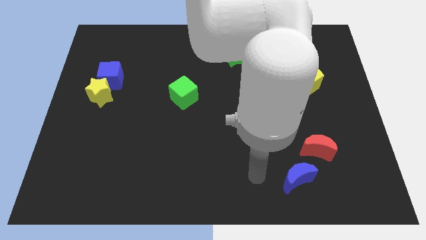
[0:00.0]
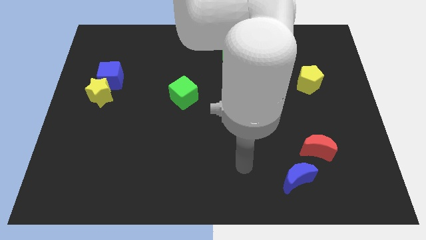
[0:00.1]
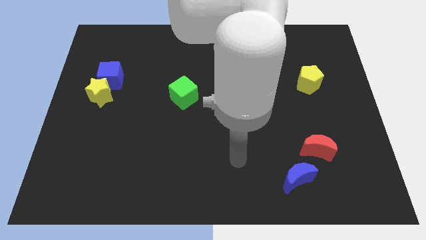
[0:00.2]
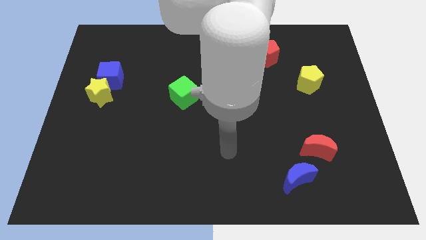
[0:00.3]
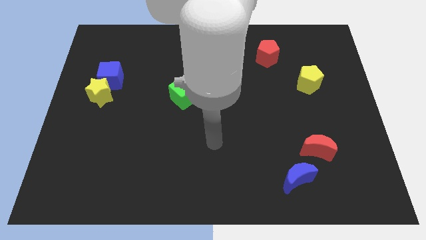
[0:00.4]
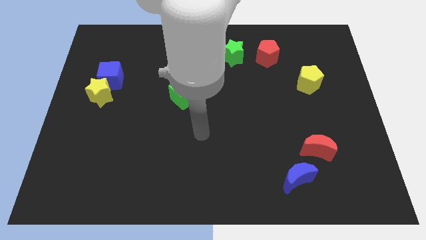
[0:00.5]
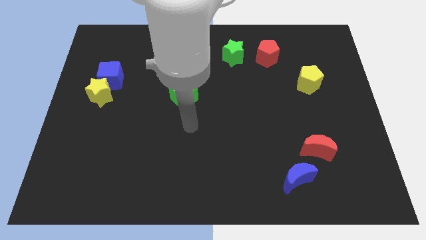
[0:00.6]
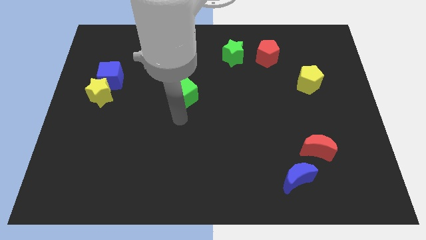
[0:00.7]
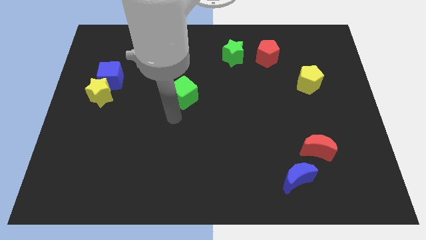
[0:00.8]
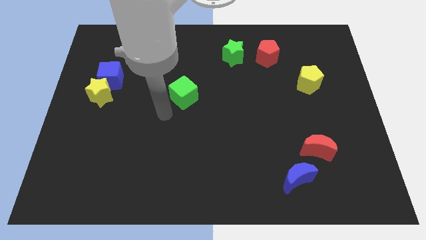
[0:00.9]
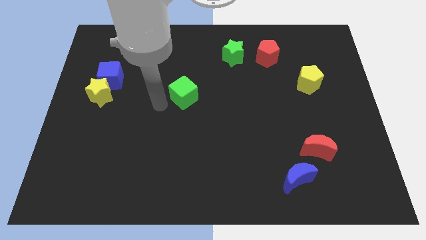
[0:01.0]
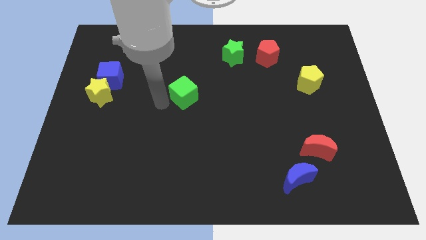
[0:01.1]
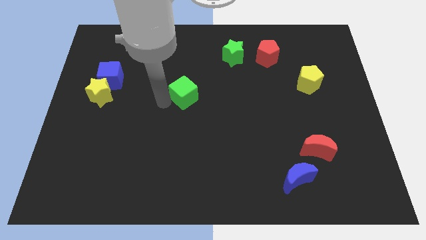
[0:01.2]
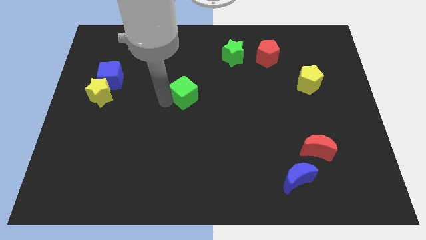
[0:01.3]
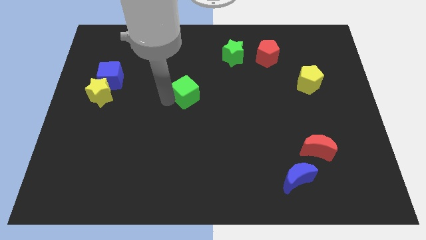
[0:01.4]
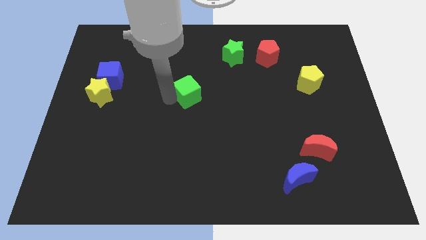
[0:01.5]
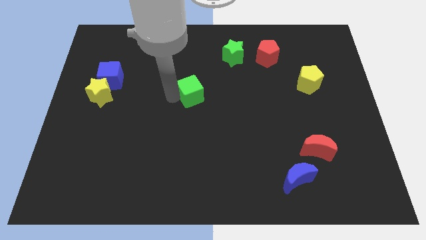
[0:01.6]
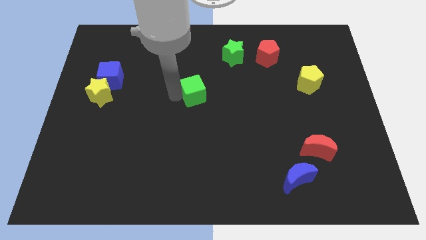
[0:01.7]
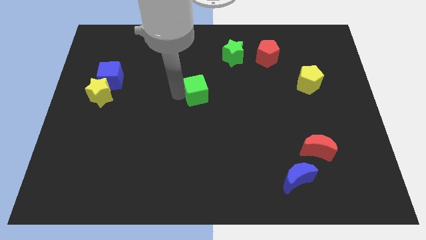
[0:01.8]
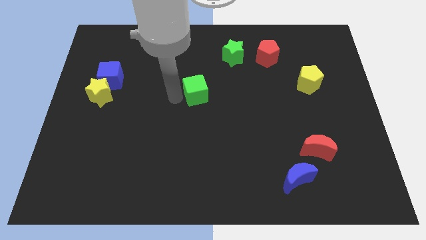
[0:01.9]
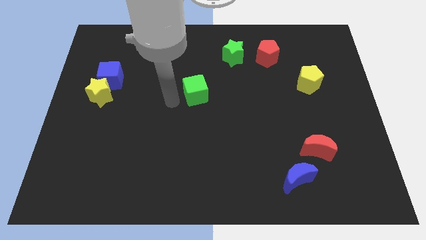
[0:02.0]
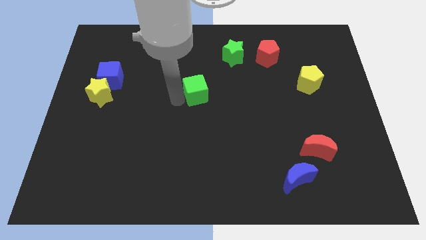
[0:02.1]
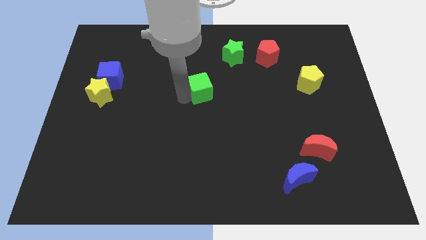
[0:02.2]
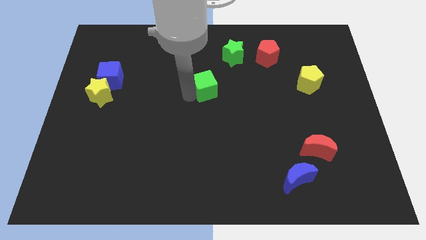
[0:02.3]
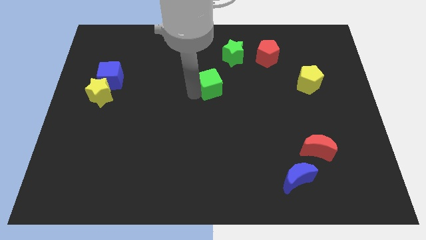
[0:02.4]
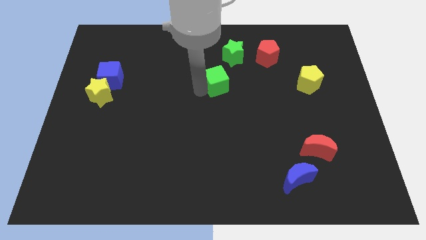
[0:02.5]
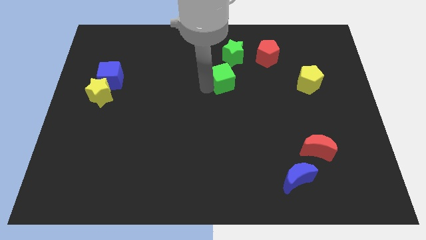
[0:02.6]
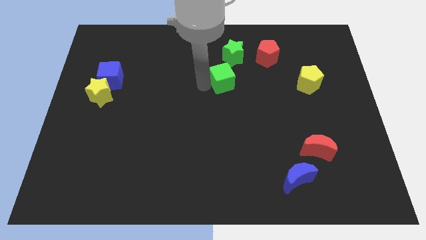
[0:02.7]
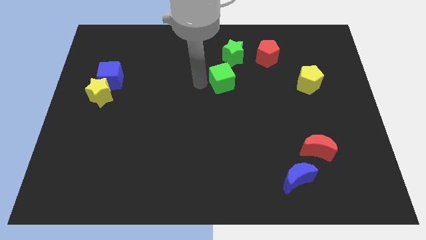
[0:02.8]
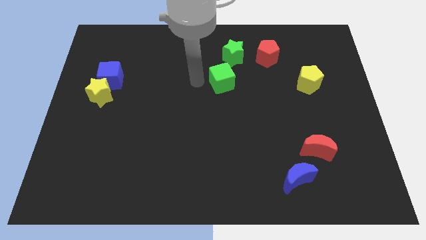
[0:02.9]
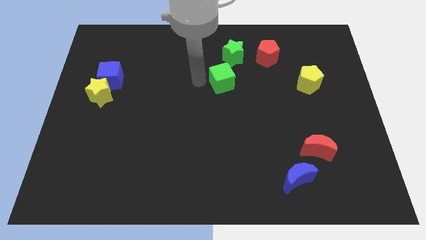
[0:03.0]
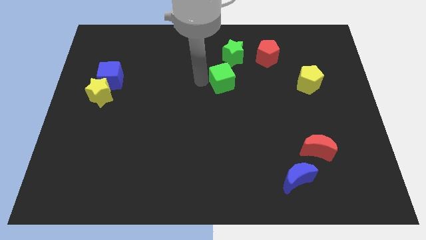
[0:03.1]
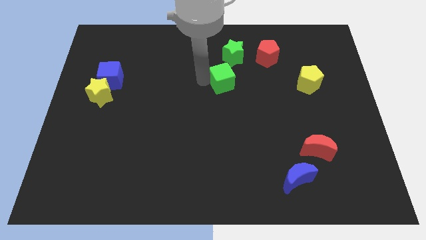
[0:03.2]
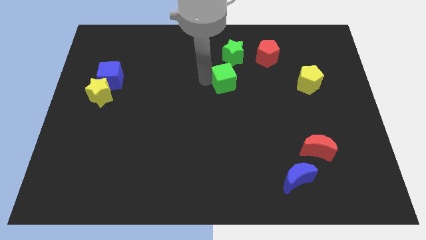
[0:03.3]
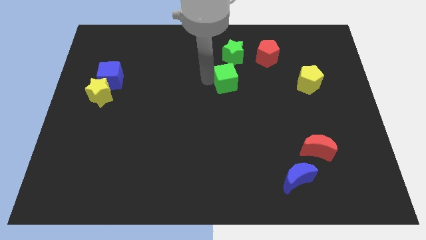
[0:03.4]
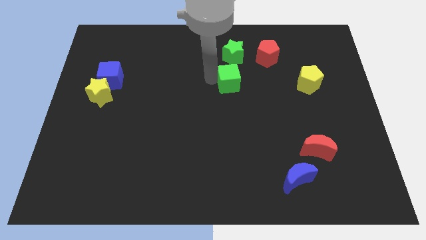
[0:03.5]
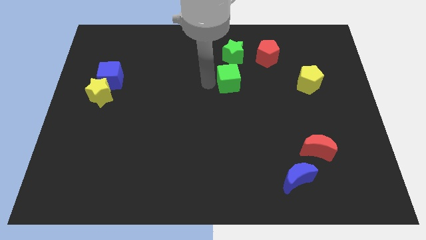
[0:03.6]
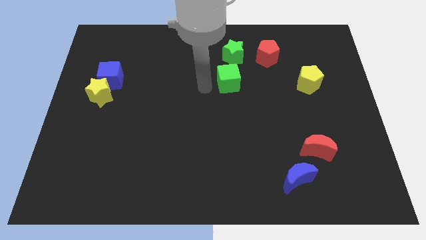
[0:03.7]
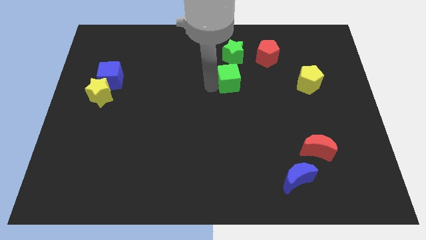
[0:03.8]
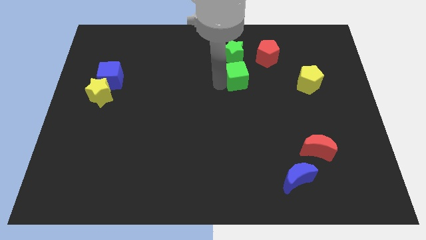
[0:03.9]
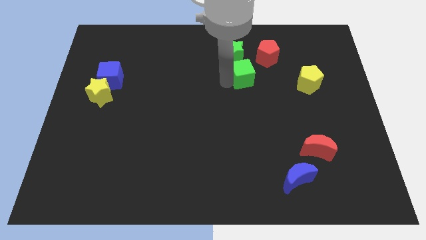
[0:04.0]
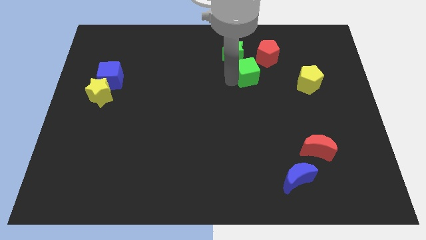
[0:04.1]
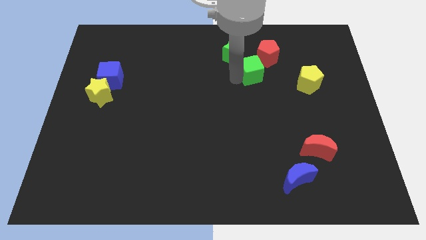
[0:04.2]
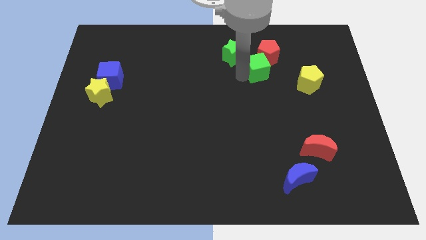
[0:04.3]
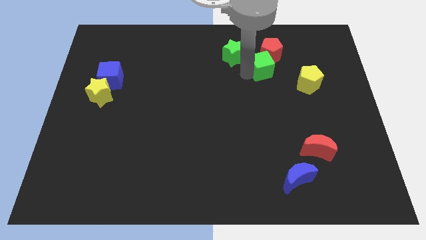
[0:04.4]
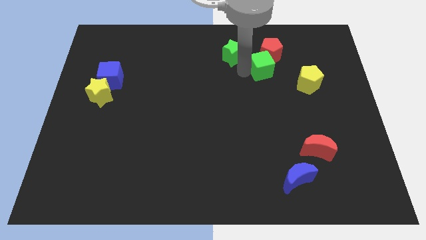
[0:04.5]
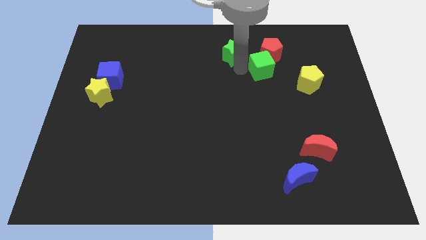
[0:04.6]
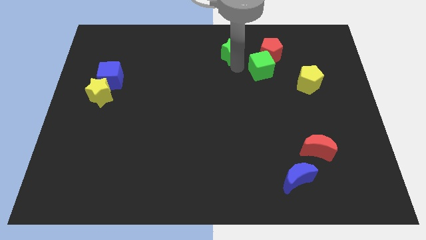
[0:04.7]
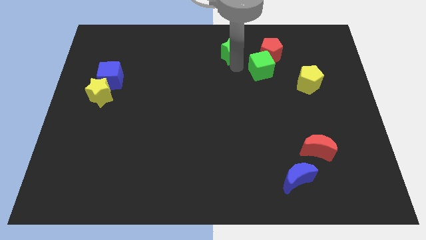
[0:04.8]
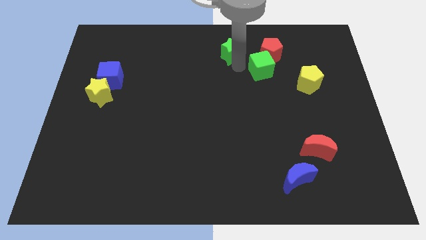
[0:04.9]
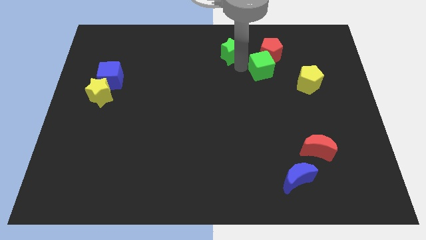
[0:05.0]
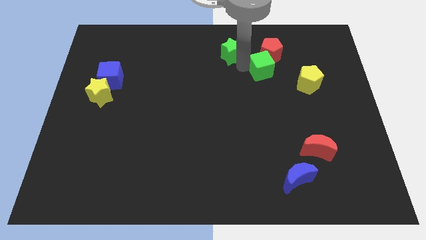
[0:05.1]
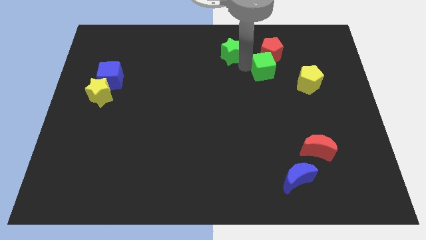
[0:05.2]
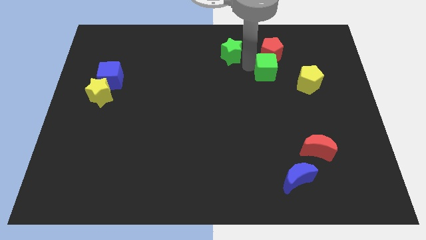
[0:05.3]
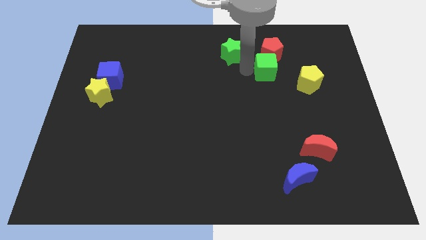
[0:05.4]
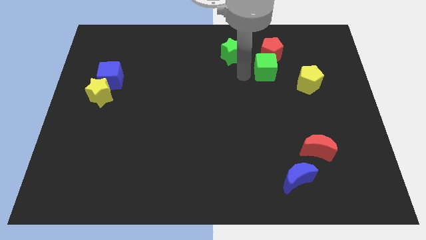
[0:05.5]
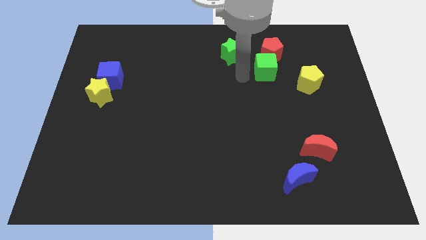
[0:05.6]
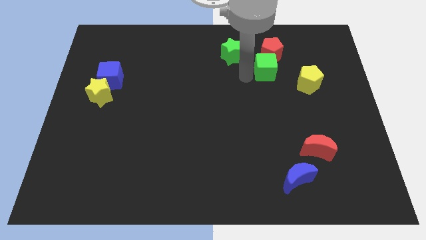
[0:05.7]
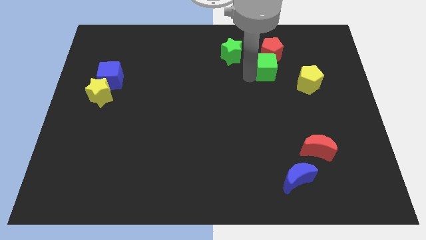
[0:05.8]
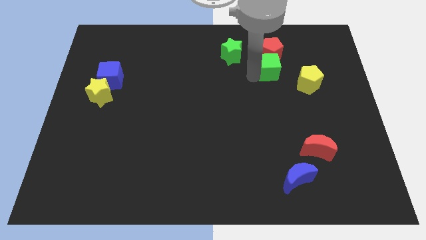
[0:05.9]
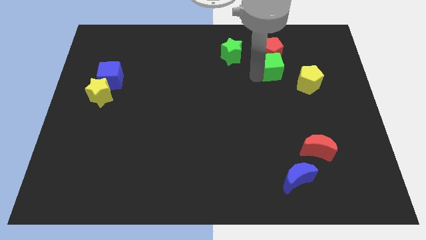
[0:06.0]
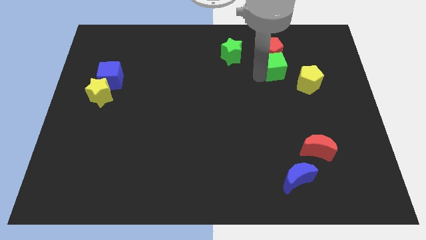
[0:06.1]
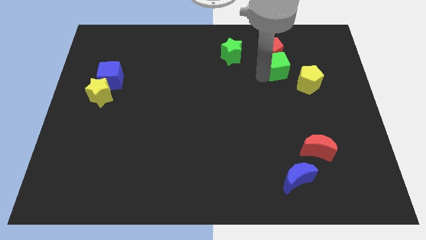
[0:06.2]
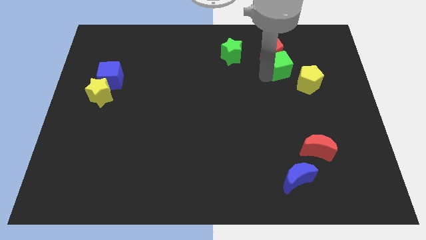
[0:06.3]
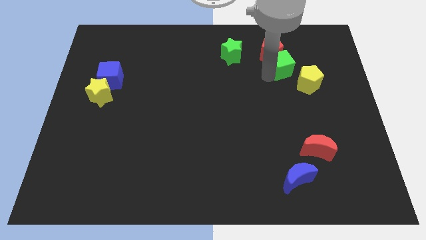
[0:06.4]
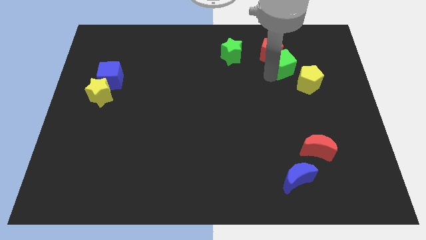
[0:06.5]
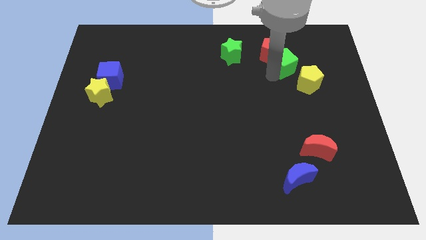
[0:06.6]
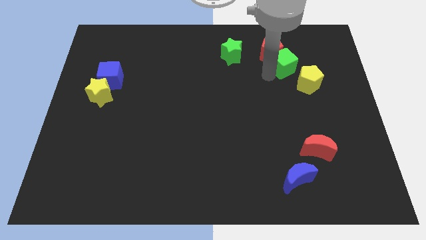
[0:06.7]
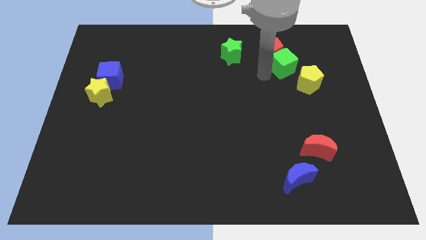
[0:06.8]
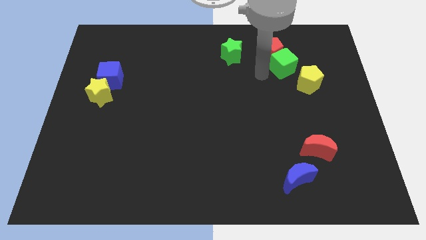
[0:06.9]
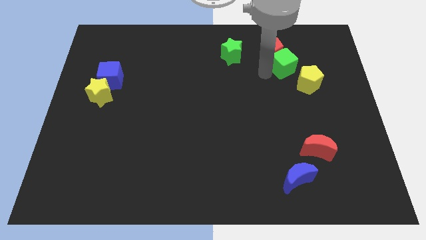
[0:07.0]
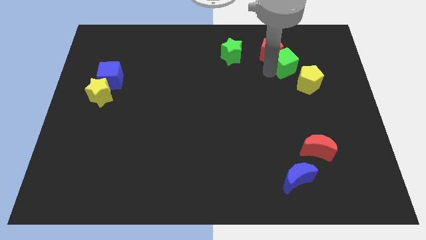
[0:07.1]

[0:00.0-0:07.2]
push the green cube to the right side of the red pentagon
